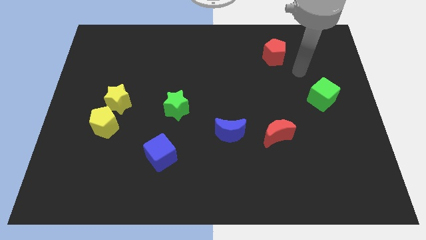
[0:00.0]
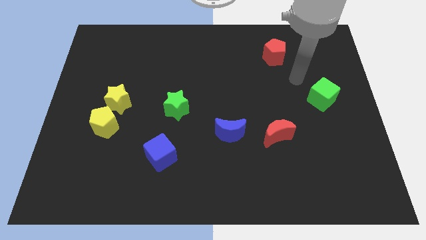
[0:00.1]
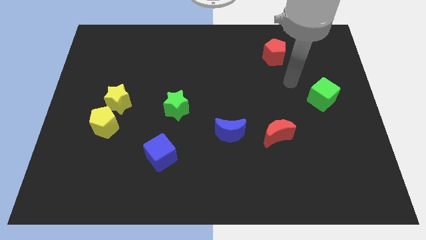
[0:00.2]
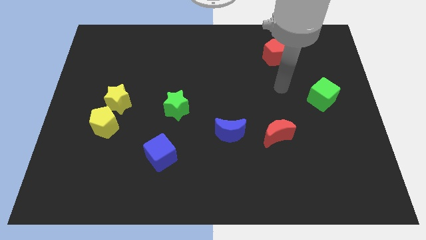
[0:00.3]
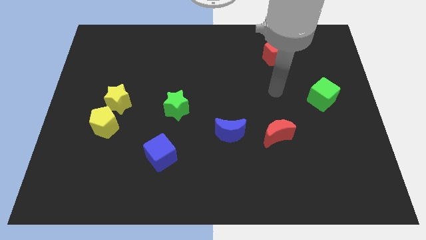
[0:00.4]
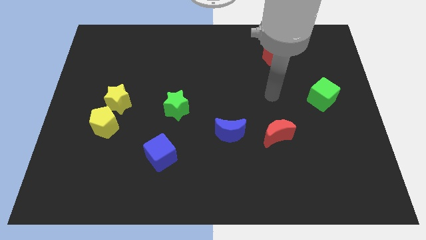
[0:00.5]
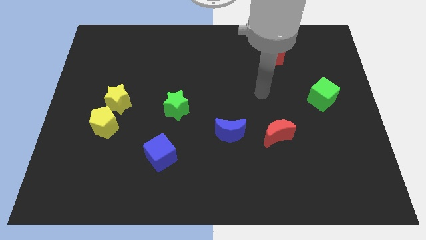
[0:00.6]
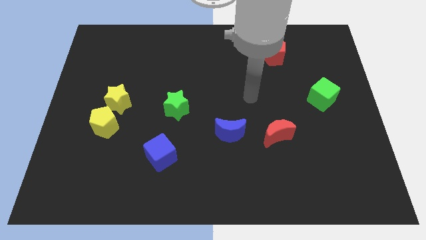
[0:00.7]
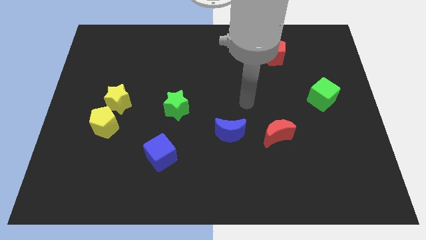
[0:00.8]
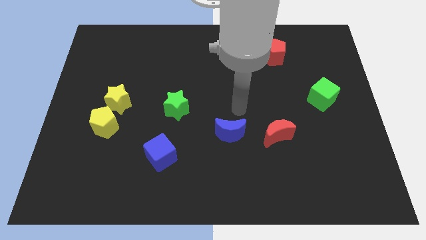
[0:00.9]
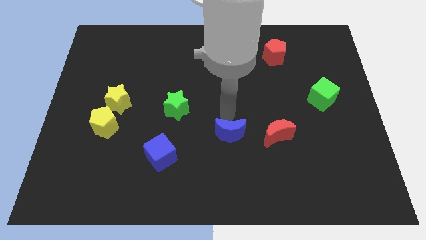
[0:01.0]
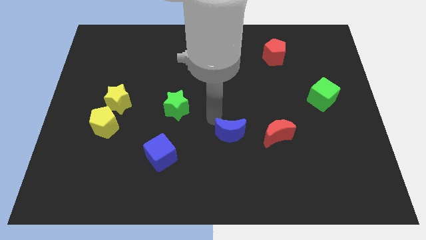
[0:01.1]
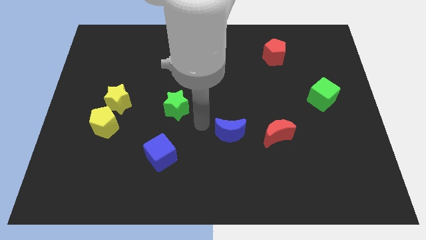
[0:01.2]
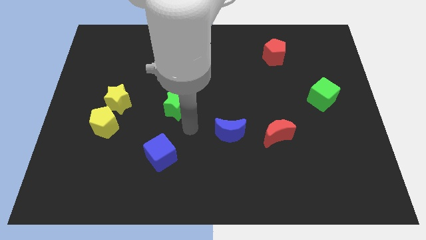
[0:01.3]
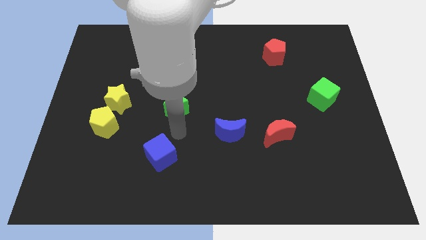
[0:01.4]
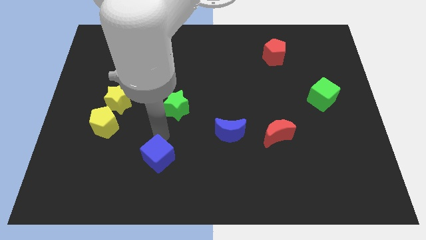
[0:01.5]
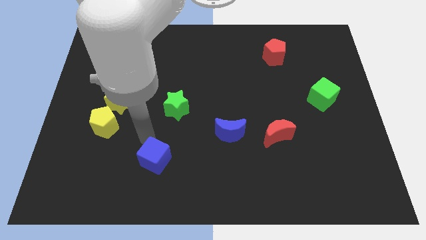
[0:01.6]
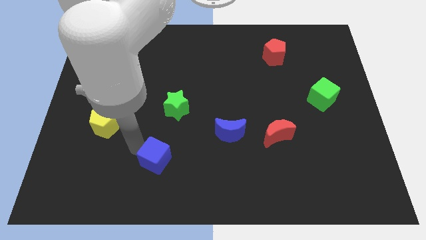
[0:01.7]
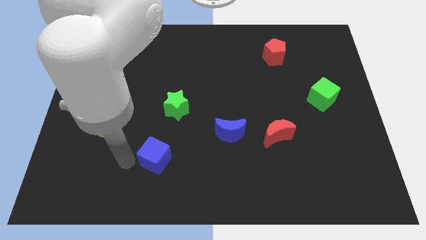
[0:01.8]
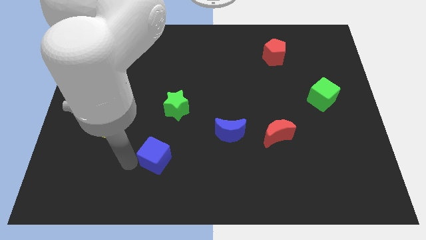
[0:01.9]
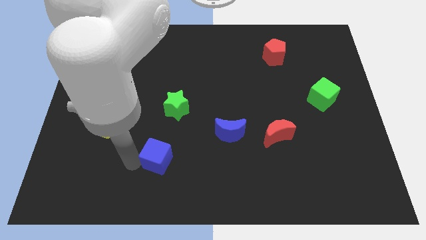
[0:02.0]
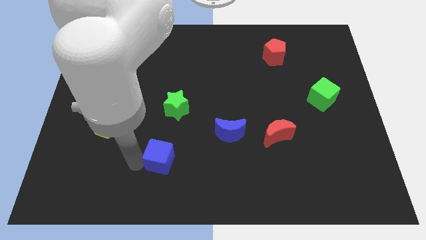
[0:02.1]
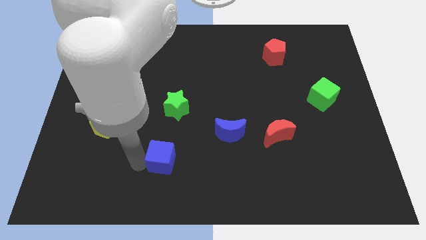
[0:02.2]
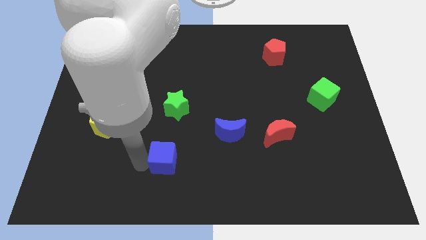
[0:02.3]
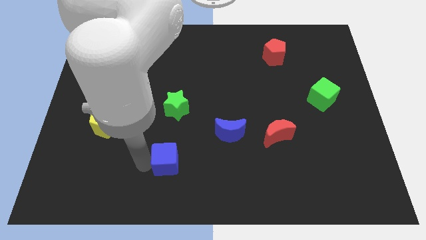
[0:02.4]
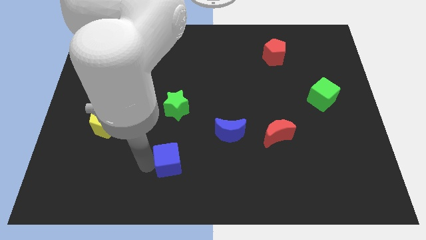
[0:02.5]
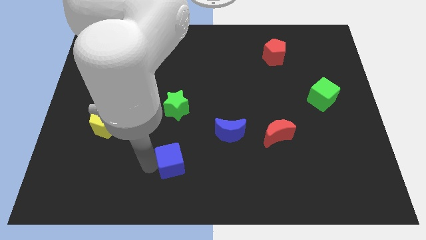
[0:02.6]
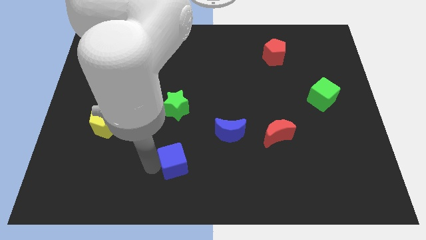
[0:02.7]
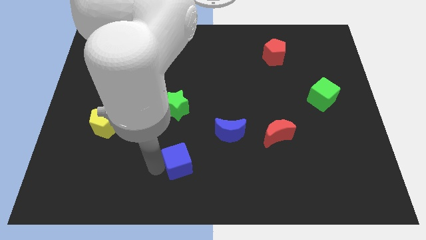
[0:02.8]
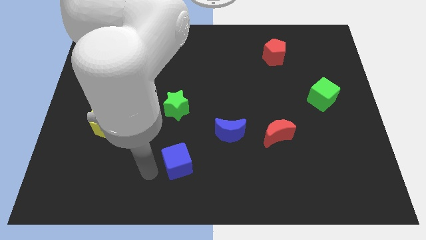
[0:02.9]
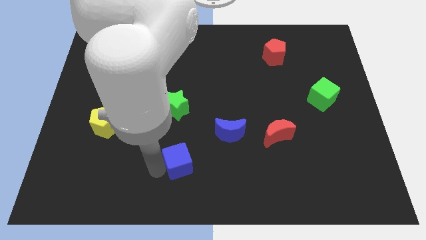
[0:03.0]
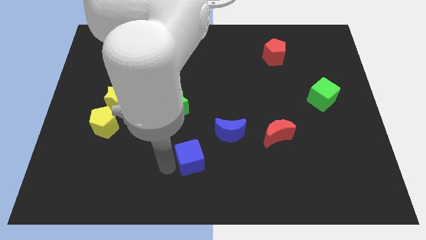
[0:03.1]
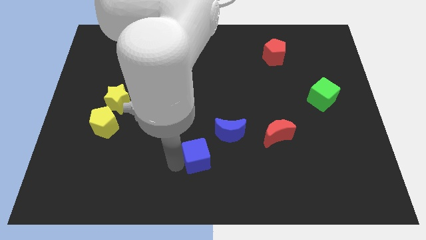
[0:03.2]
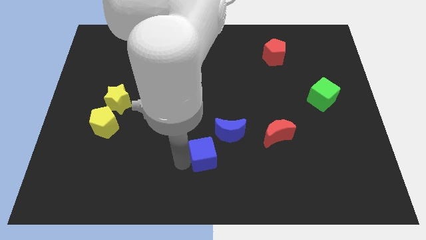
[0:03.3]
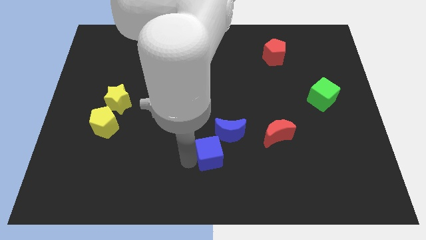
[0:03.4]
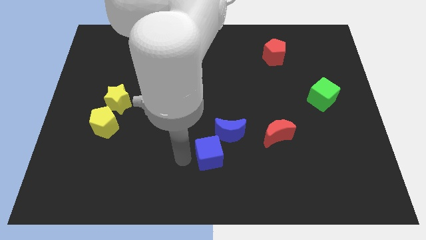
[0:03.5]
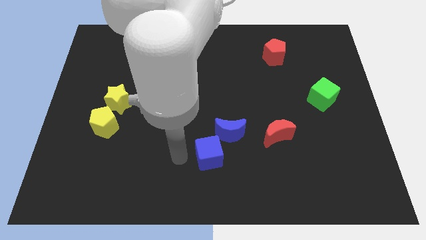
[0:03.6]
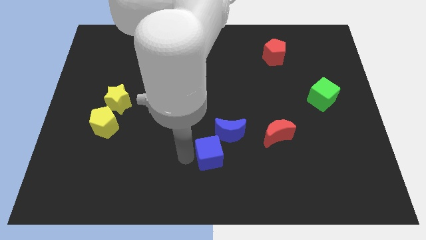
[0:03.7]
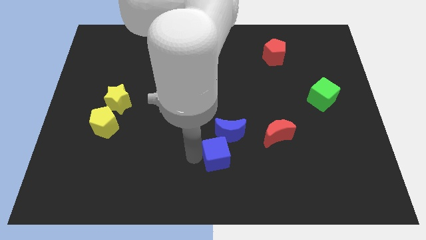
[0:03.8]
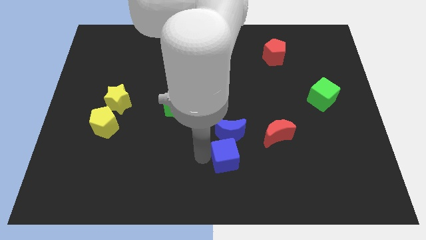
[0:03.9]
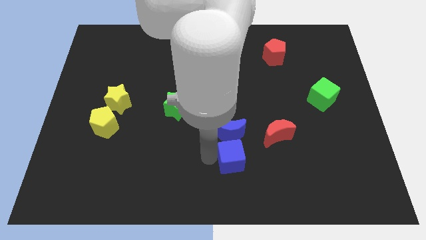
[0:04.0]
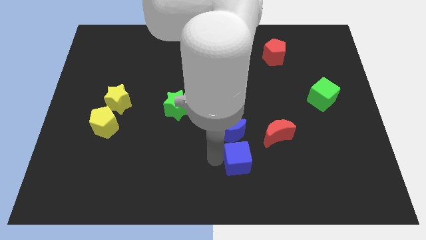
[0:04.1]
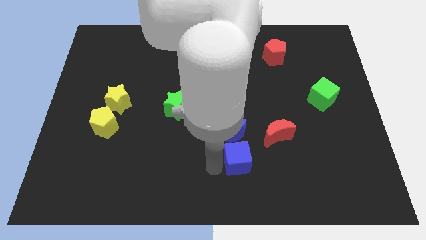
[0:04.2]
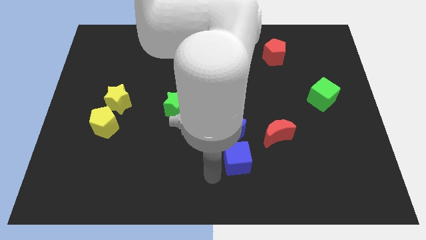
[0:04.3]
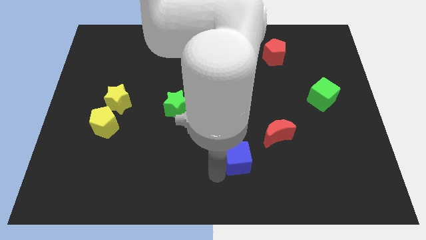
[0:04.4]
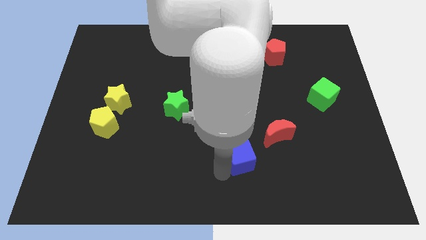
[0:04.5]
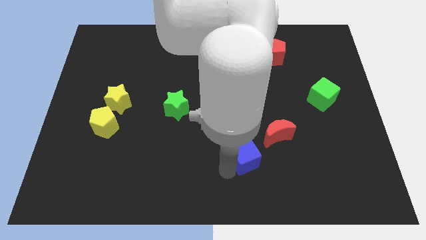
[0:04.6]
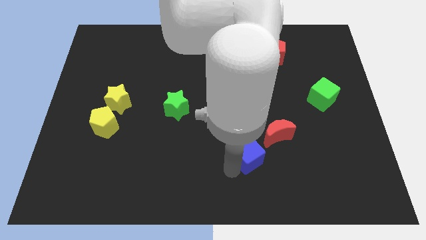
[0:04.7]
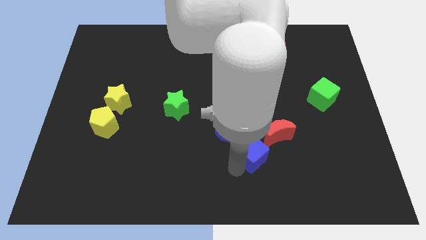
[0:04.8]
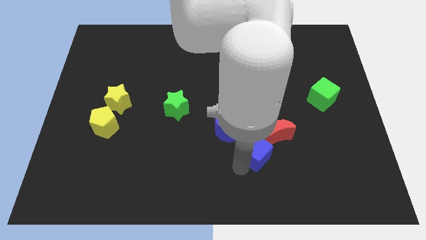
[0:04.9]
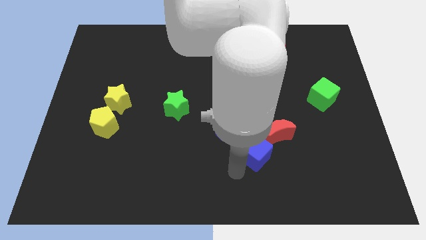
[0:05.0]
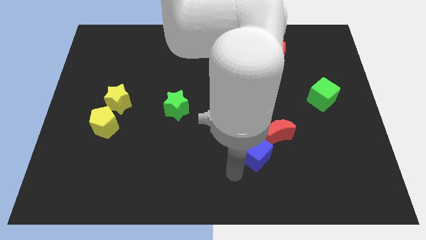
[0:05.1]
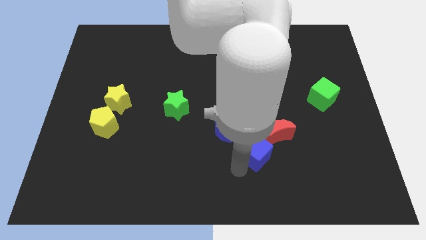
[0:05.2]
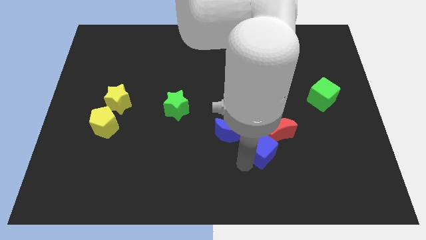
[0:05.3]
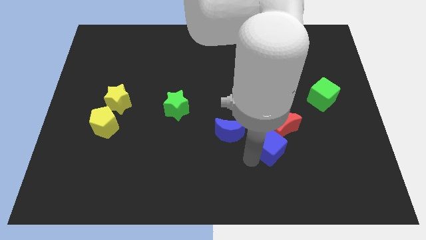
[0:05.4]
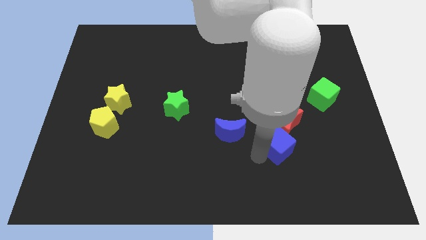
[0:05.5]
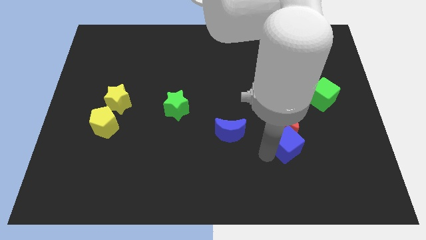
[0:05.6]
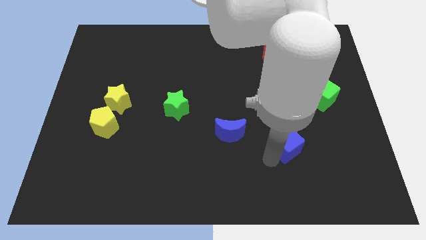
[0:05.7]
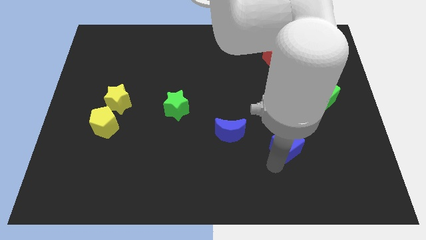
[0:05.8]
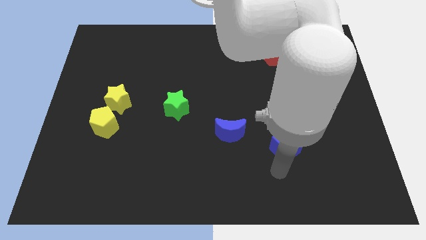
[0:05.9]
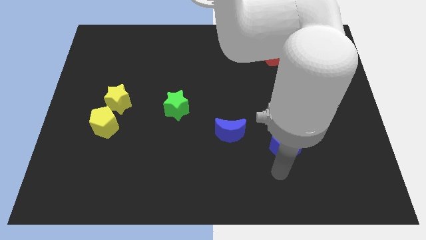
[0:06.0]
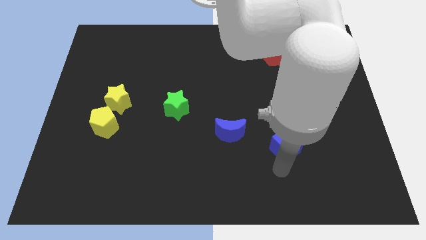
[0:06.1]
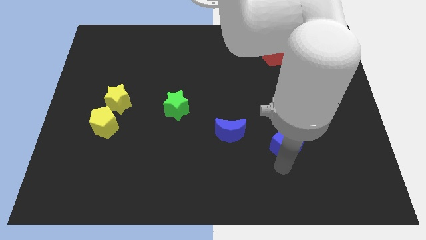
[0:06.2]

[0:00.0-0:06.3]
push the blue cube close to the red moon

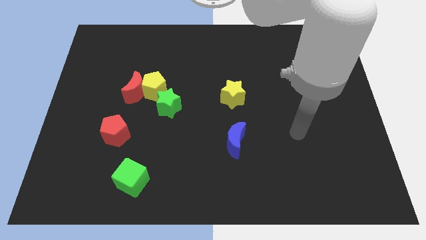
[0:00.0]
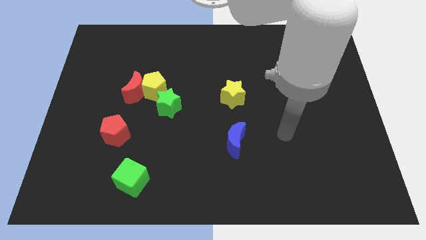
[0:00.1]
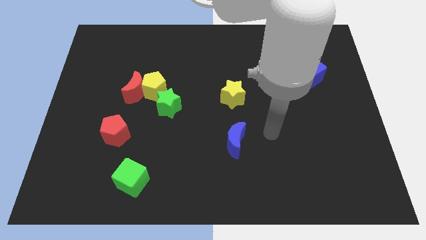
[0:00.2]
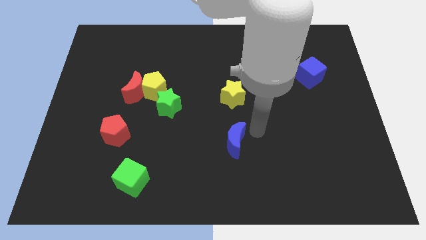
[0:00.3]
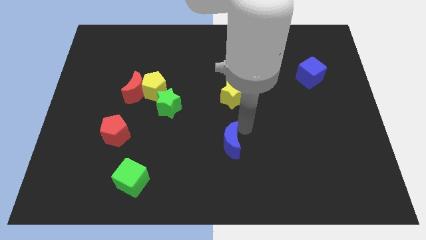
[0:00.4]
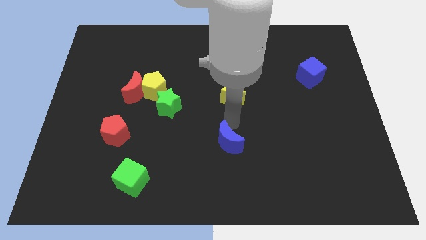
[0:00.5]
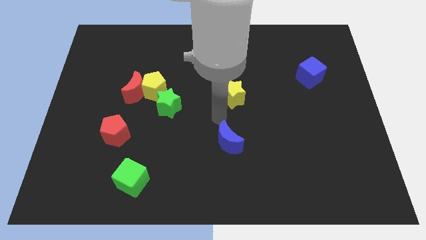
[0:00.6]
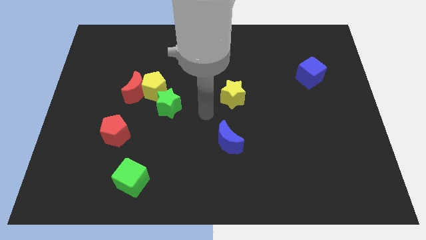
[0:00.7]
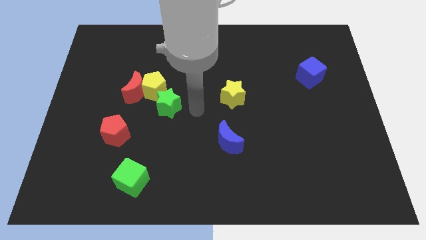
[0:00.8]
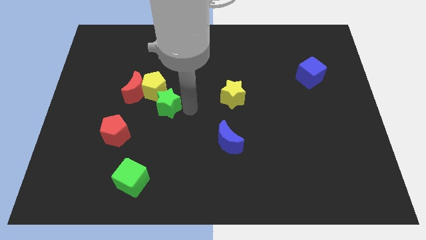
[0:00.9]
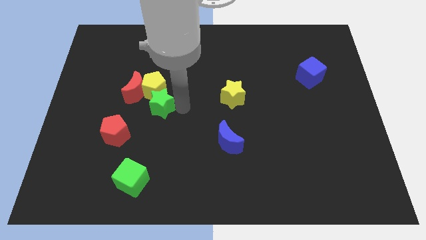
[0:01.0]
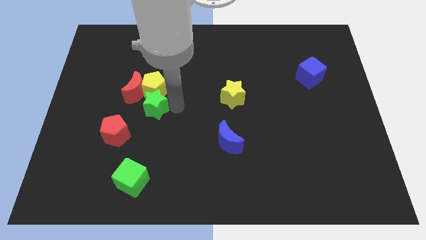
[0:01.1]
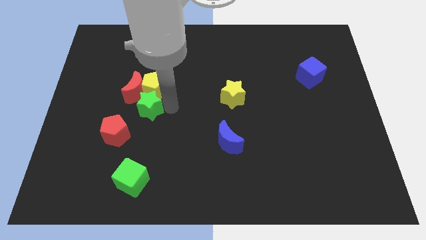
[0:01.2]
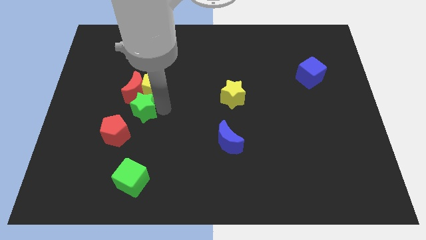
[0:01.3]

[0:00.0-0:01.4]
move the green star to the red moon
